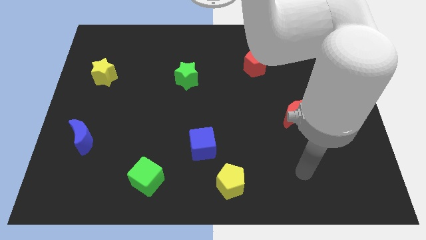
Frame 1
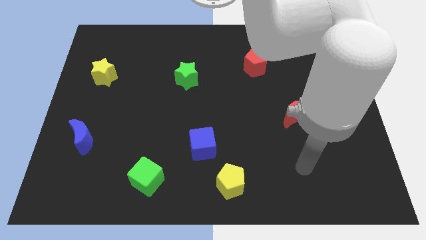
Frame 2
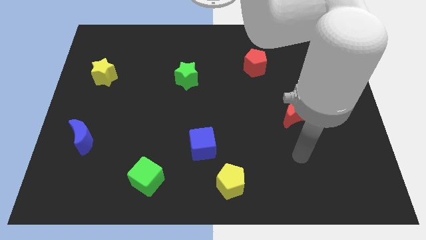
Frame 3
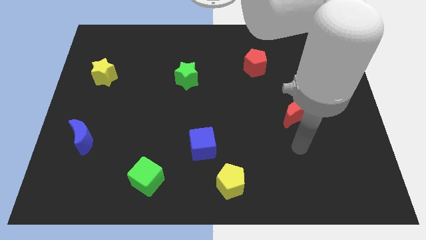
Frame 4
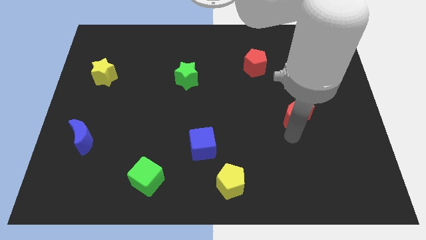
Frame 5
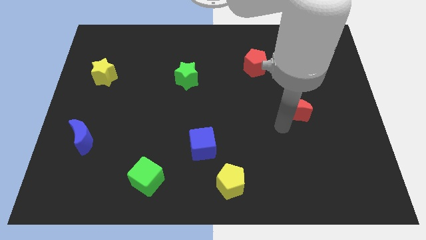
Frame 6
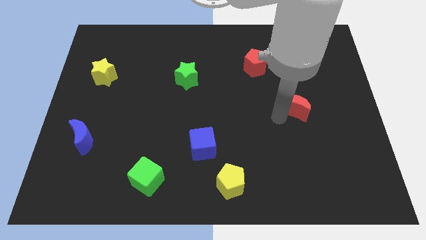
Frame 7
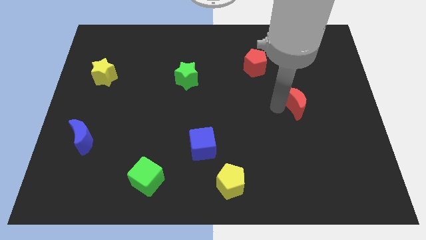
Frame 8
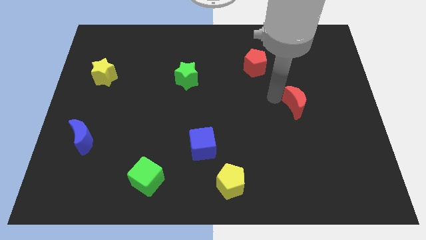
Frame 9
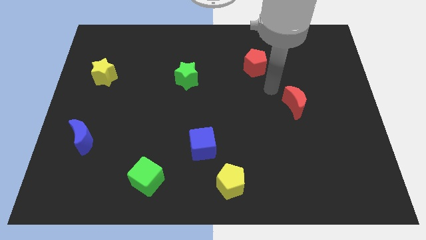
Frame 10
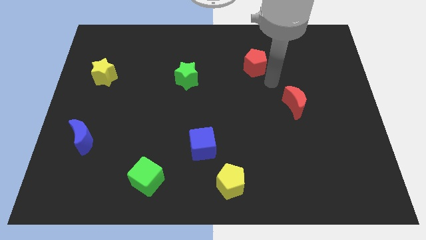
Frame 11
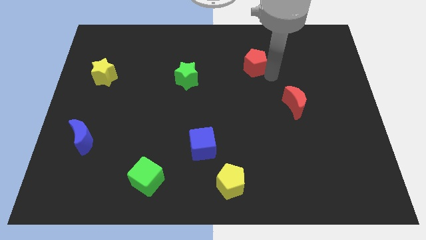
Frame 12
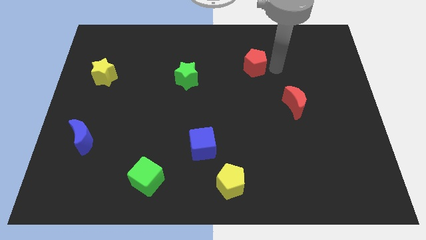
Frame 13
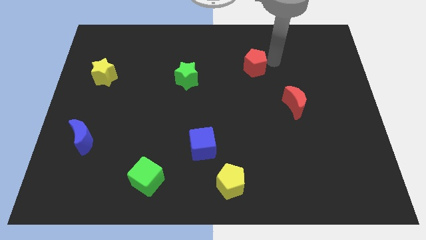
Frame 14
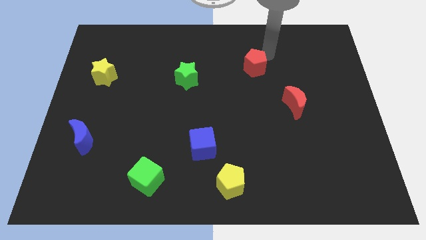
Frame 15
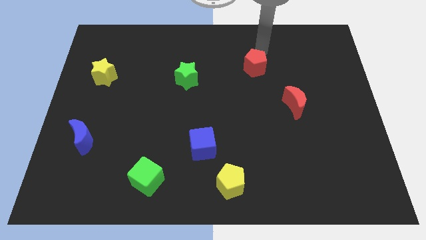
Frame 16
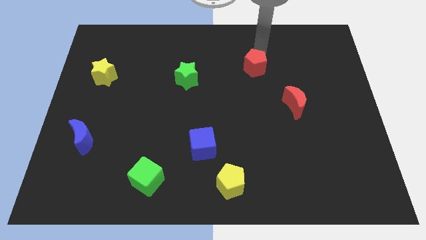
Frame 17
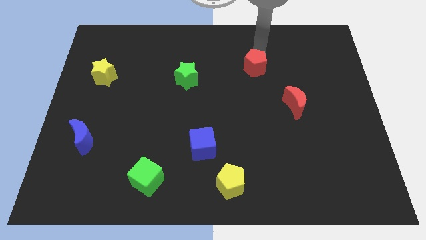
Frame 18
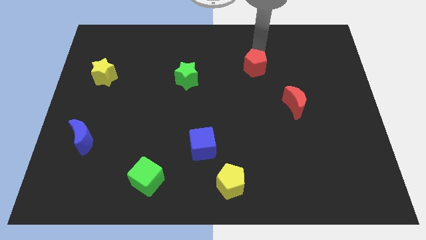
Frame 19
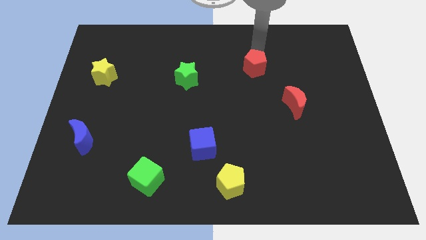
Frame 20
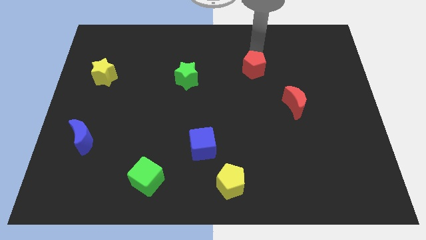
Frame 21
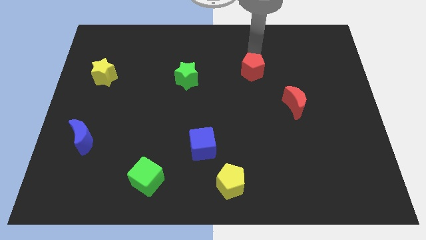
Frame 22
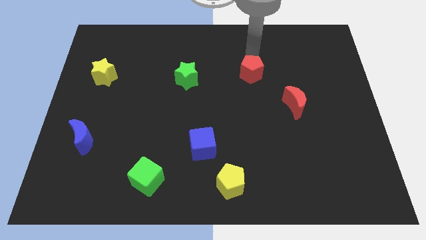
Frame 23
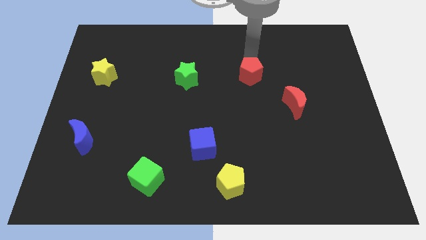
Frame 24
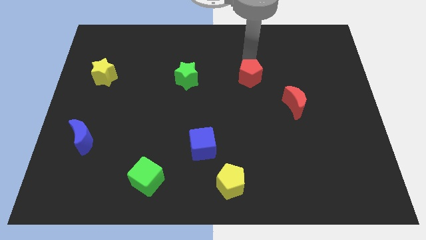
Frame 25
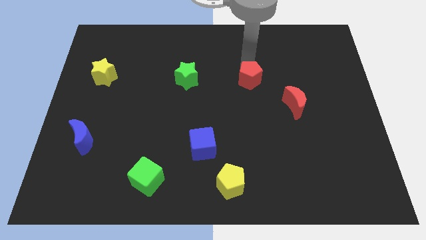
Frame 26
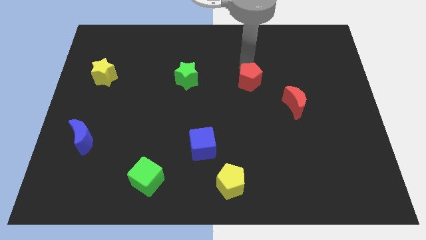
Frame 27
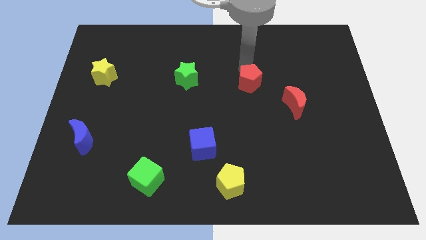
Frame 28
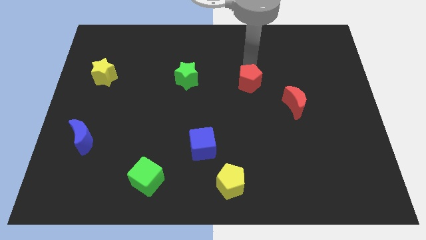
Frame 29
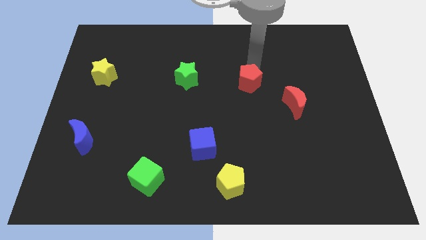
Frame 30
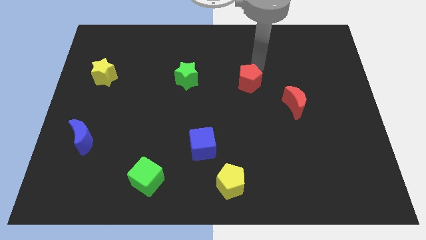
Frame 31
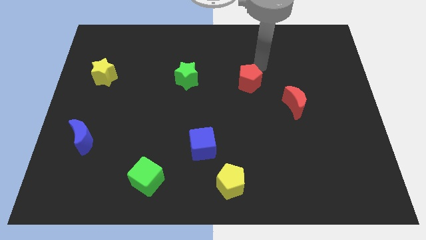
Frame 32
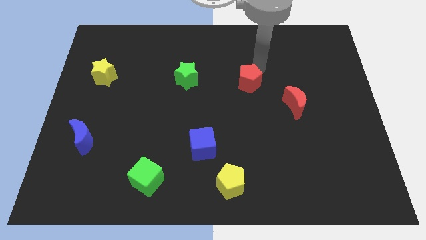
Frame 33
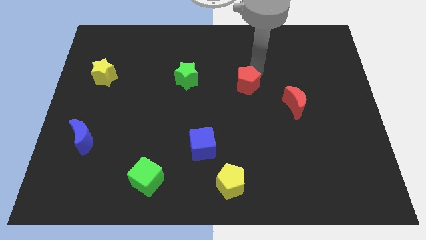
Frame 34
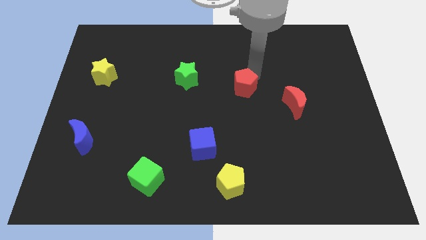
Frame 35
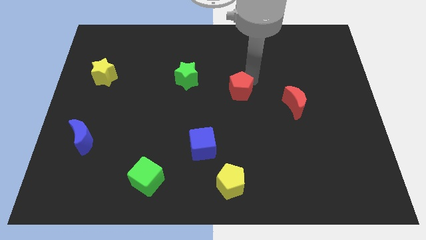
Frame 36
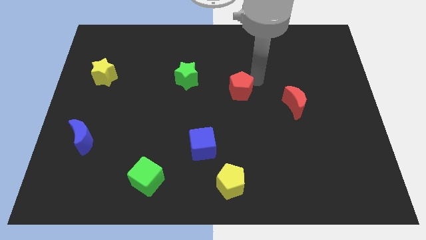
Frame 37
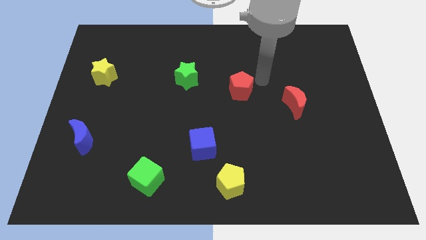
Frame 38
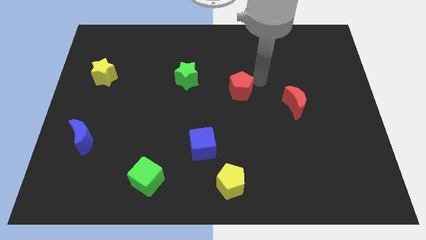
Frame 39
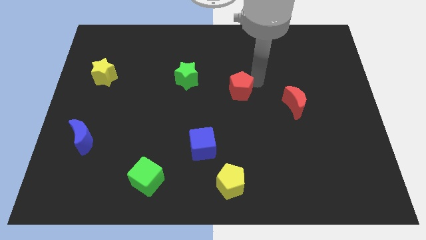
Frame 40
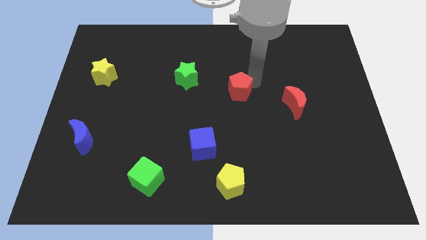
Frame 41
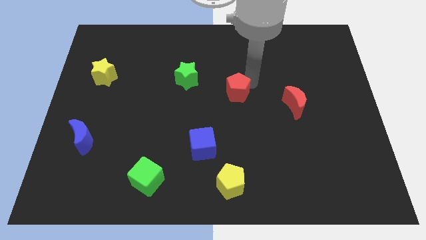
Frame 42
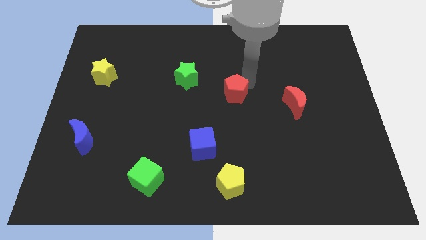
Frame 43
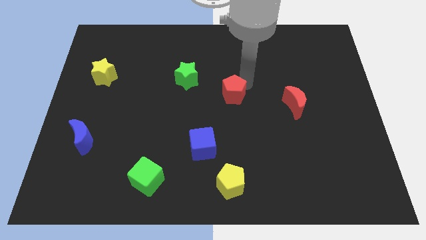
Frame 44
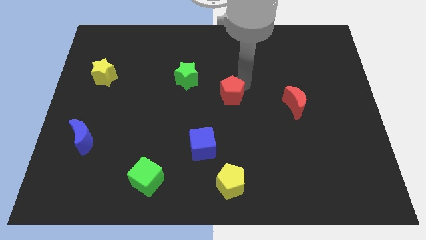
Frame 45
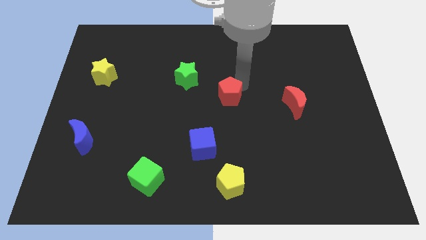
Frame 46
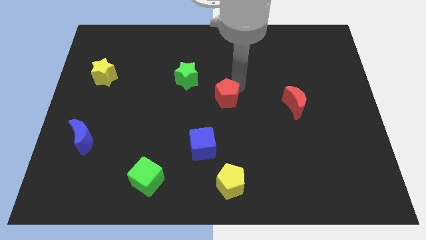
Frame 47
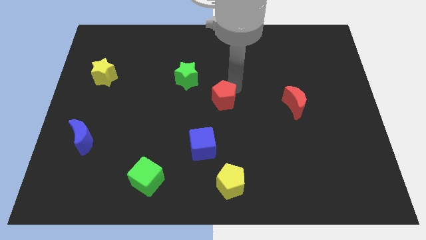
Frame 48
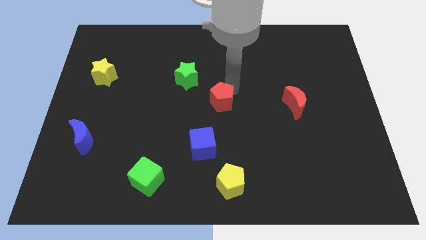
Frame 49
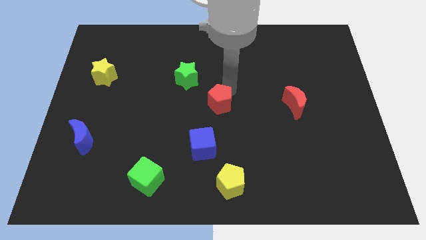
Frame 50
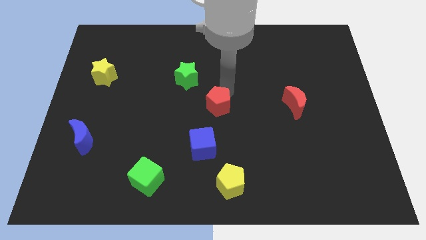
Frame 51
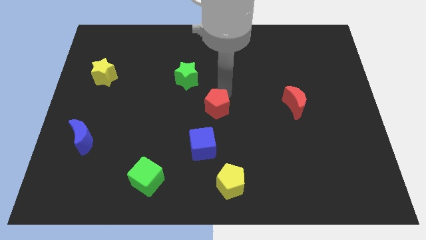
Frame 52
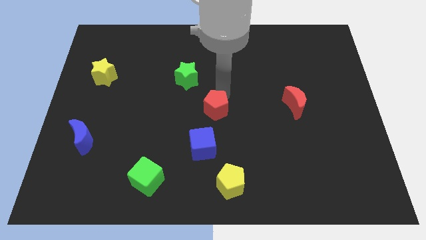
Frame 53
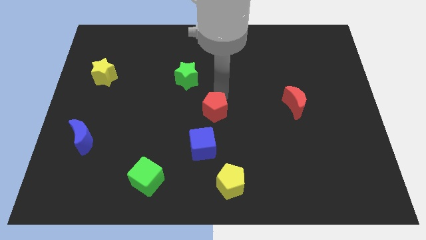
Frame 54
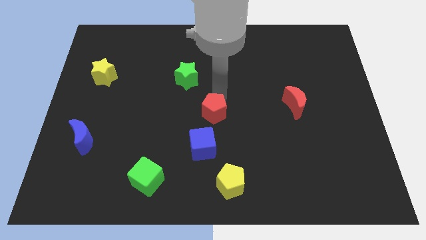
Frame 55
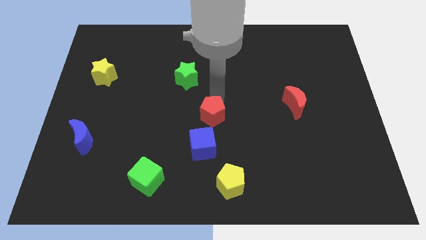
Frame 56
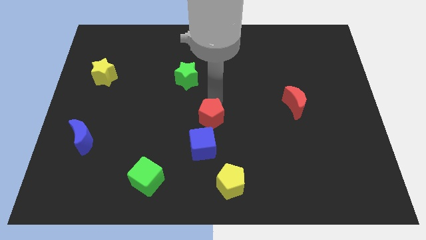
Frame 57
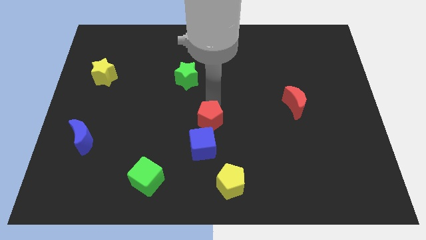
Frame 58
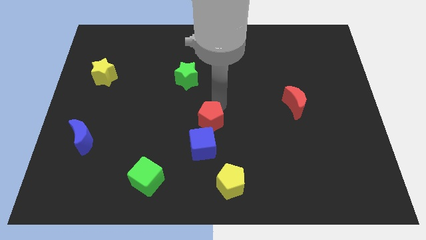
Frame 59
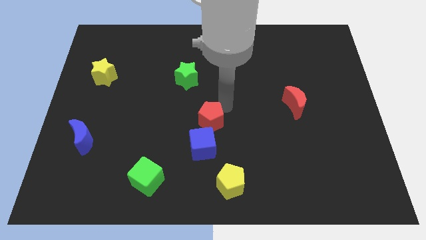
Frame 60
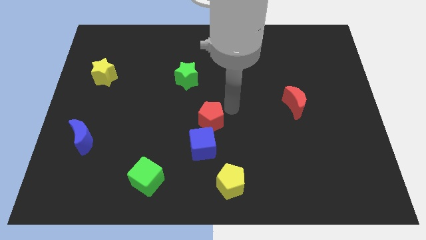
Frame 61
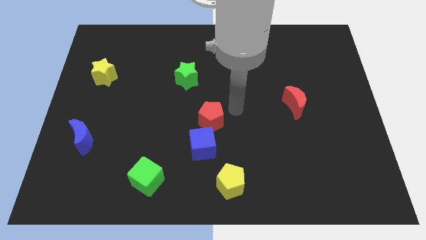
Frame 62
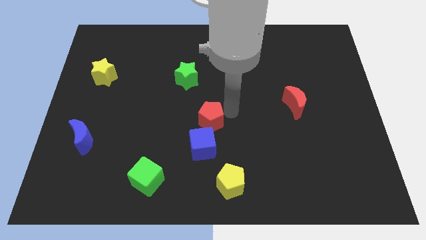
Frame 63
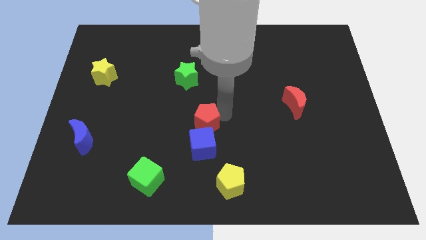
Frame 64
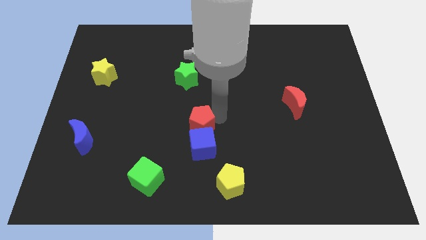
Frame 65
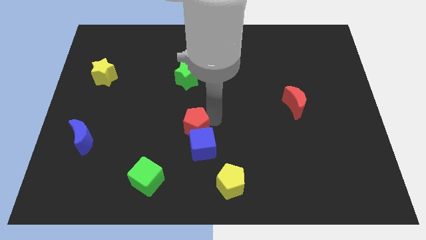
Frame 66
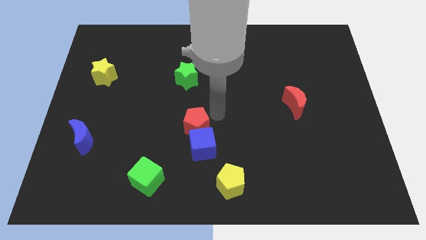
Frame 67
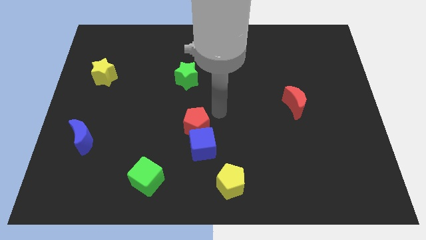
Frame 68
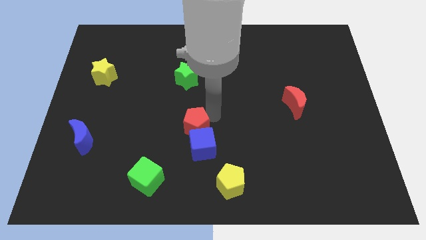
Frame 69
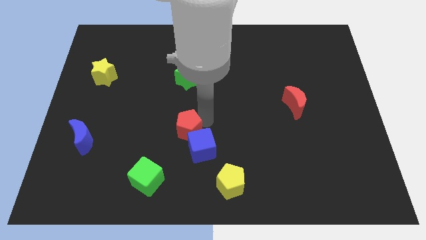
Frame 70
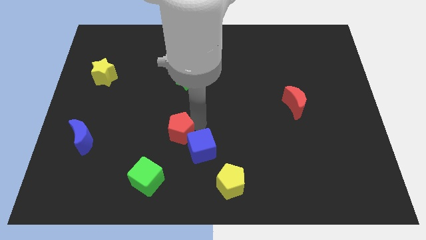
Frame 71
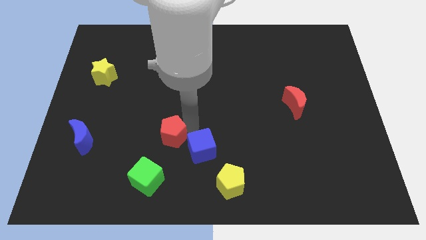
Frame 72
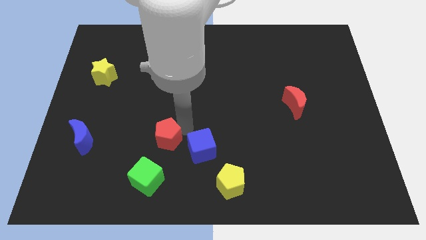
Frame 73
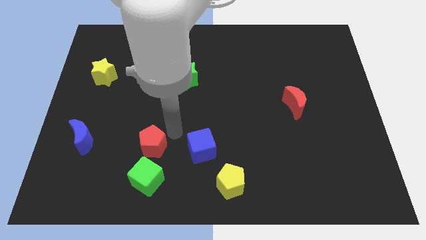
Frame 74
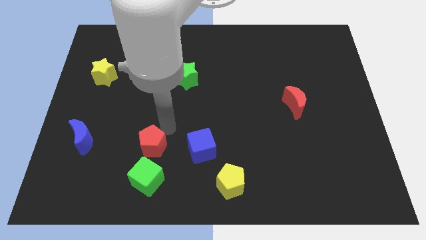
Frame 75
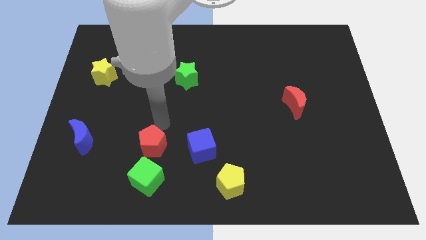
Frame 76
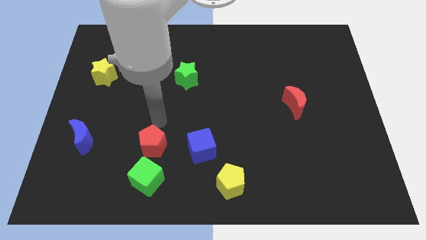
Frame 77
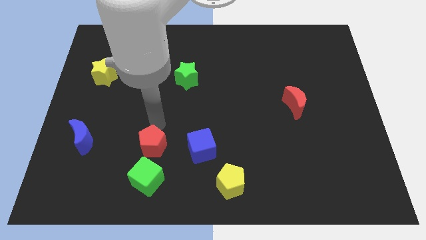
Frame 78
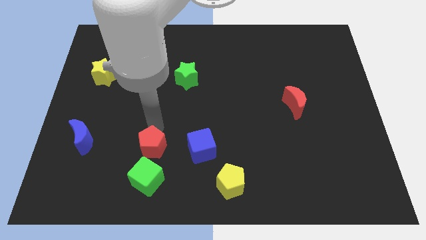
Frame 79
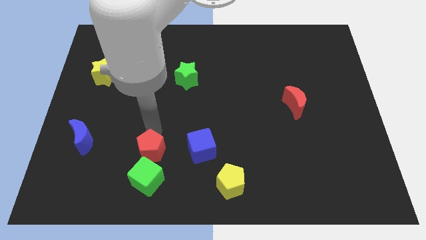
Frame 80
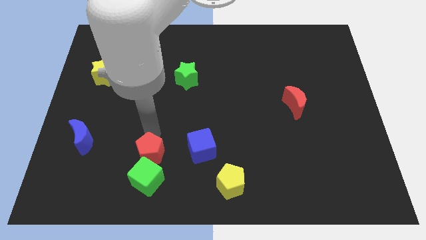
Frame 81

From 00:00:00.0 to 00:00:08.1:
put the red pentagon next to the green cube
